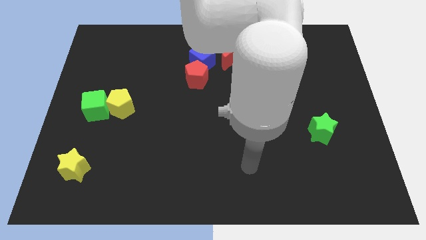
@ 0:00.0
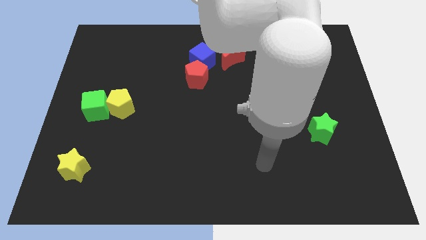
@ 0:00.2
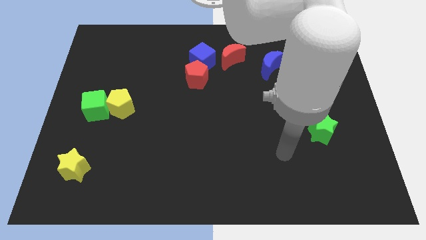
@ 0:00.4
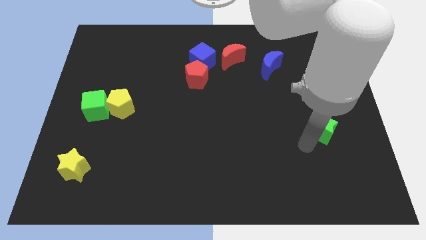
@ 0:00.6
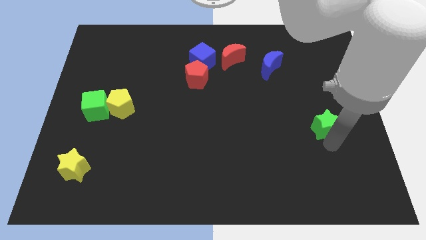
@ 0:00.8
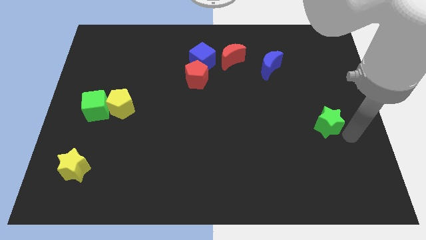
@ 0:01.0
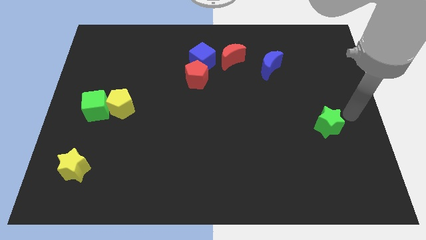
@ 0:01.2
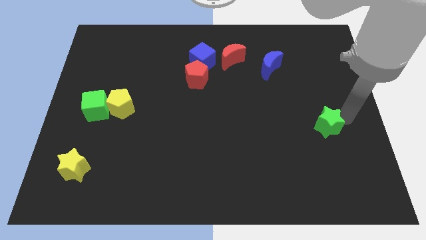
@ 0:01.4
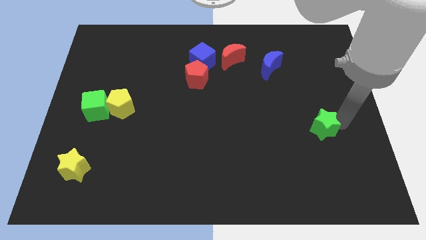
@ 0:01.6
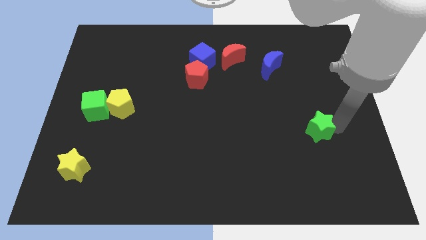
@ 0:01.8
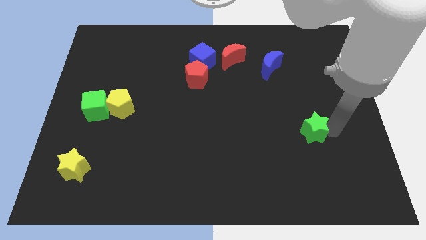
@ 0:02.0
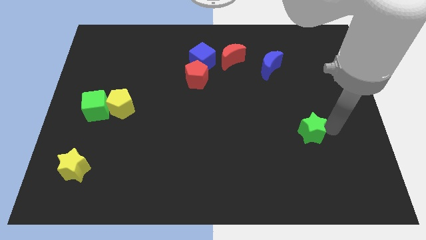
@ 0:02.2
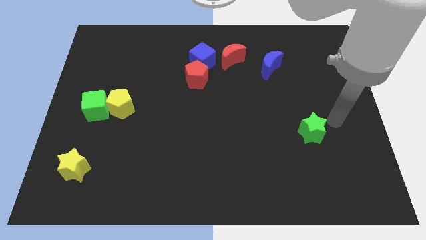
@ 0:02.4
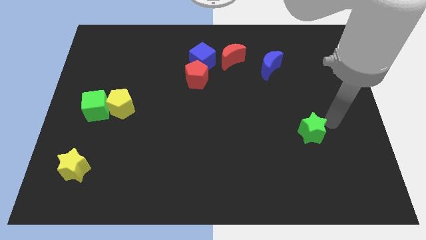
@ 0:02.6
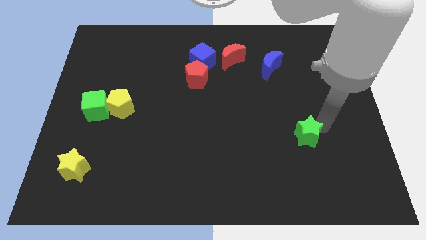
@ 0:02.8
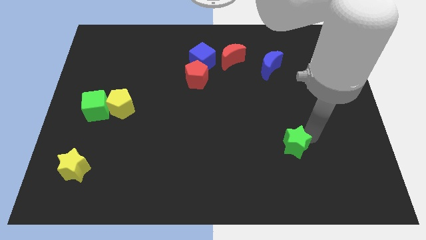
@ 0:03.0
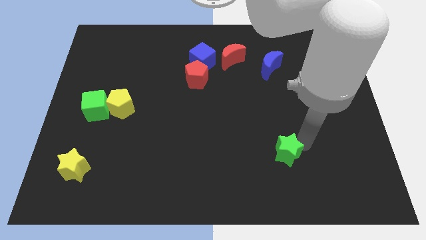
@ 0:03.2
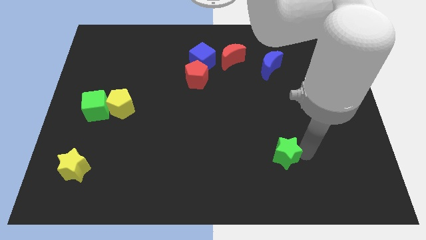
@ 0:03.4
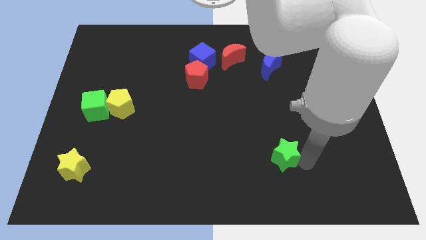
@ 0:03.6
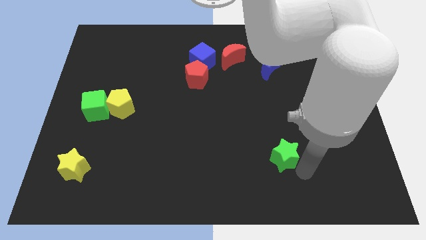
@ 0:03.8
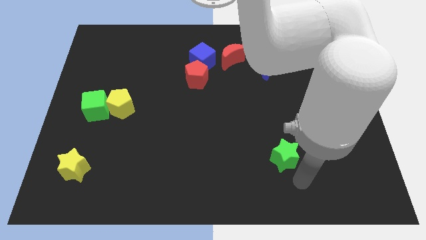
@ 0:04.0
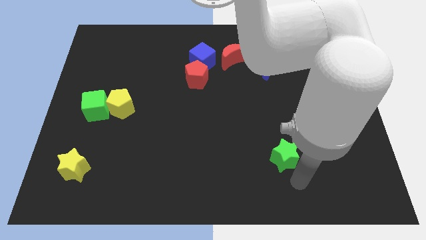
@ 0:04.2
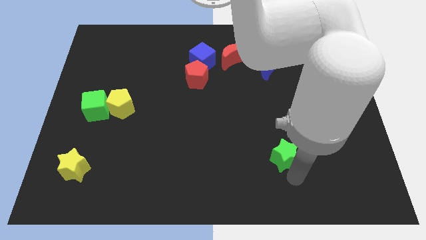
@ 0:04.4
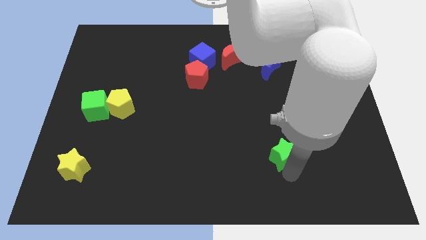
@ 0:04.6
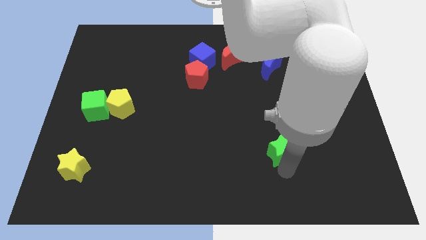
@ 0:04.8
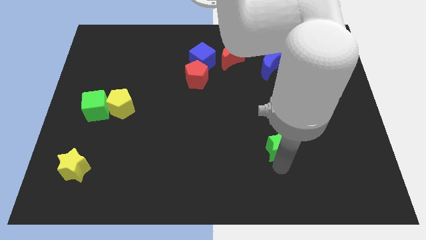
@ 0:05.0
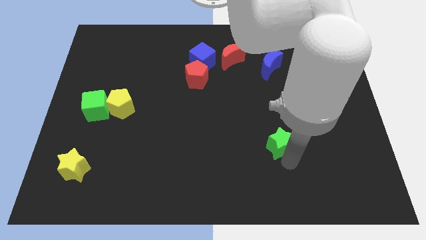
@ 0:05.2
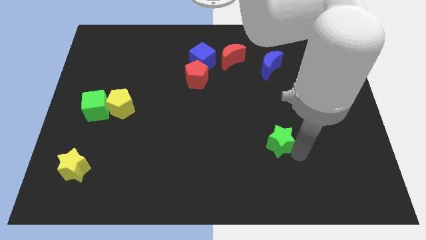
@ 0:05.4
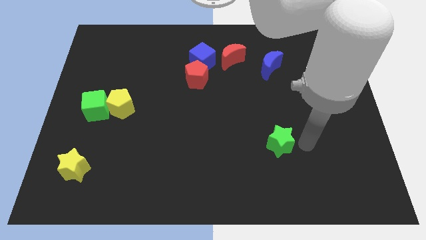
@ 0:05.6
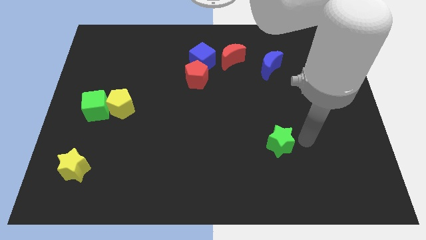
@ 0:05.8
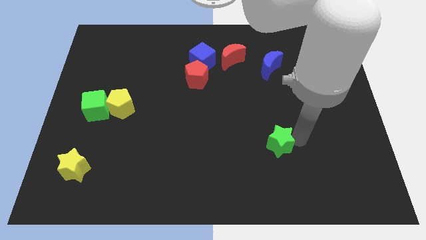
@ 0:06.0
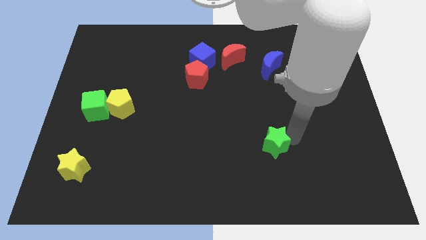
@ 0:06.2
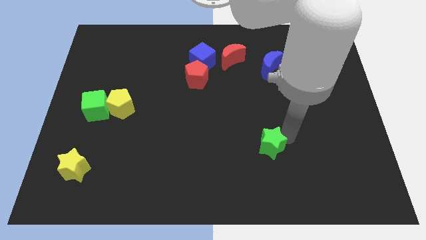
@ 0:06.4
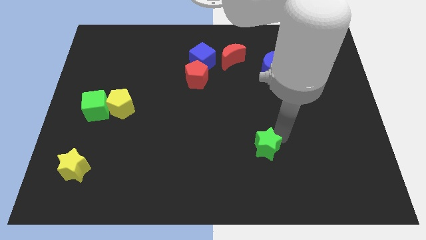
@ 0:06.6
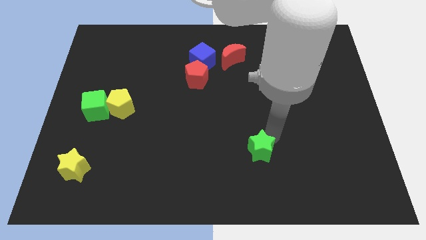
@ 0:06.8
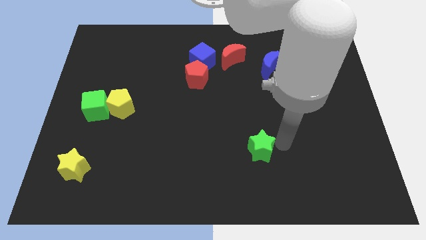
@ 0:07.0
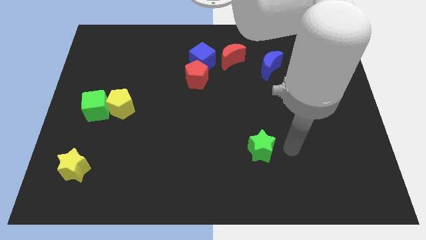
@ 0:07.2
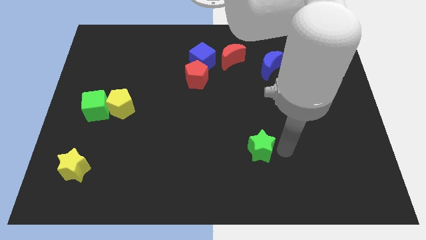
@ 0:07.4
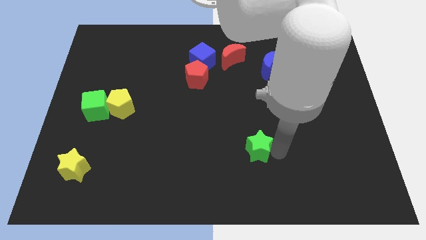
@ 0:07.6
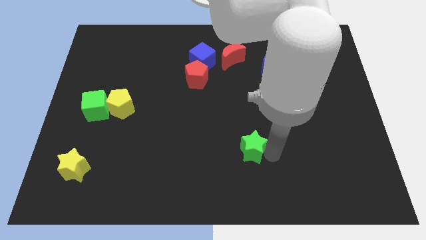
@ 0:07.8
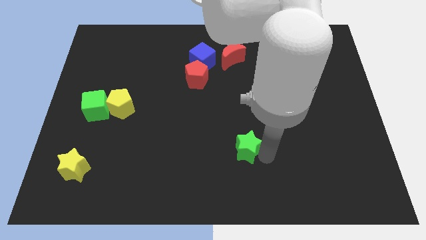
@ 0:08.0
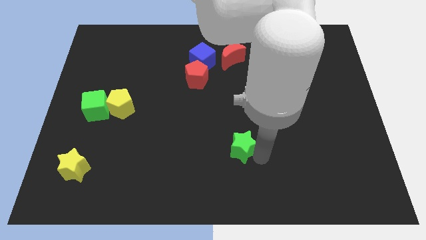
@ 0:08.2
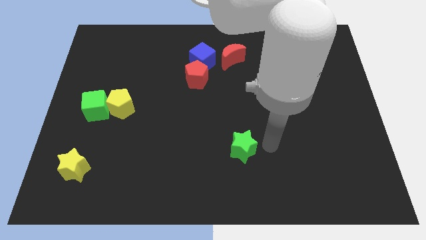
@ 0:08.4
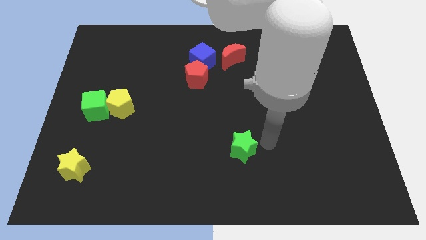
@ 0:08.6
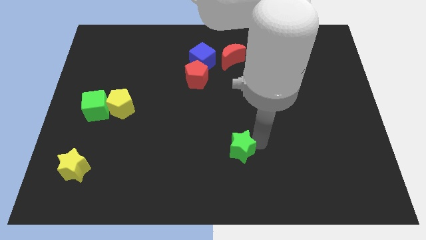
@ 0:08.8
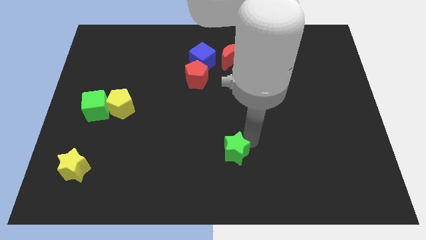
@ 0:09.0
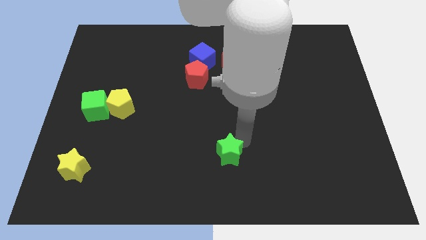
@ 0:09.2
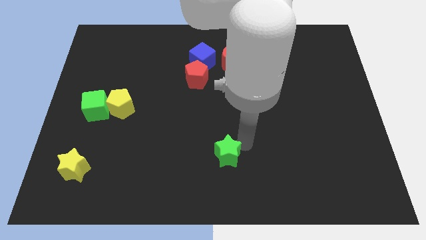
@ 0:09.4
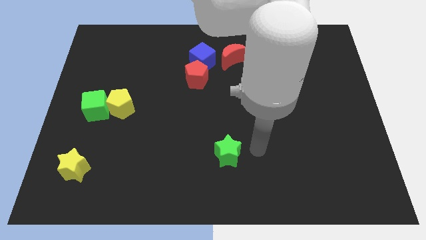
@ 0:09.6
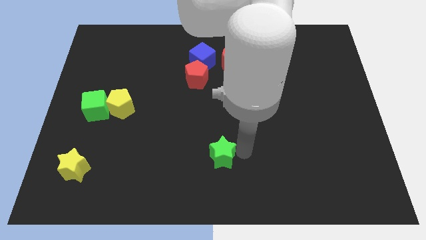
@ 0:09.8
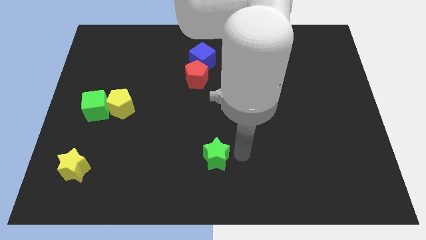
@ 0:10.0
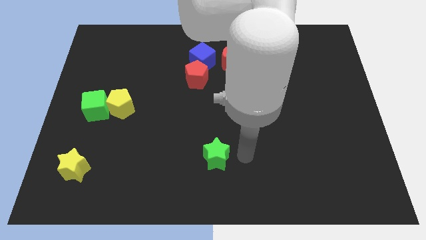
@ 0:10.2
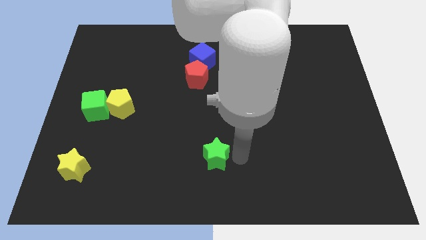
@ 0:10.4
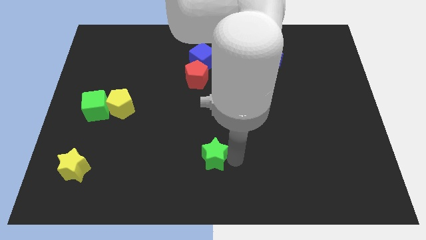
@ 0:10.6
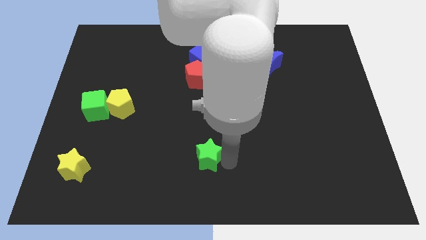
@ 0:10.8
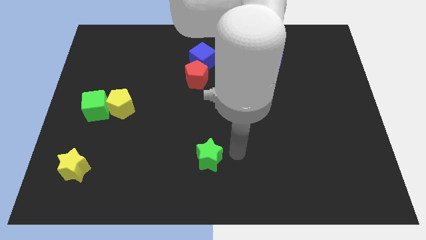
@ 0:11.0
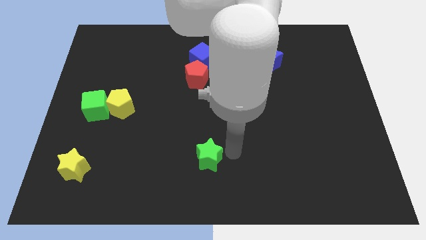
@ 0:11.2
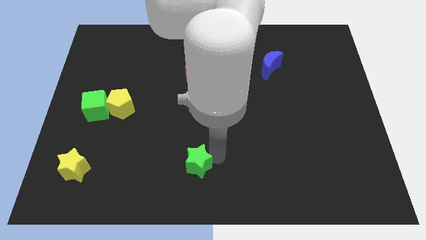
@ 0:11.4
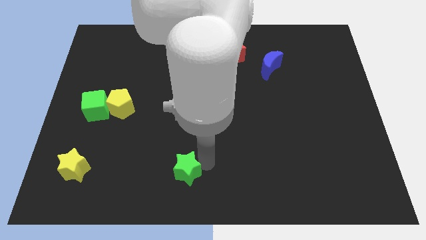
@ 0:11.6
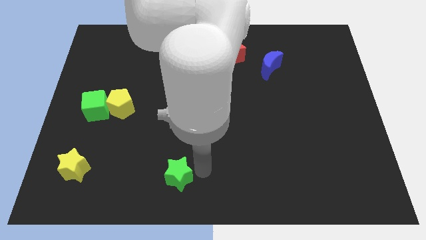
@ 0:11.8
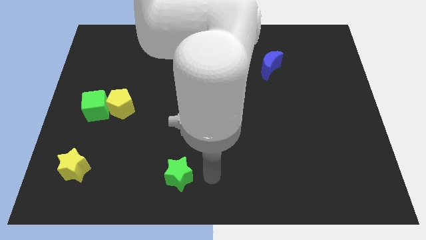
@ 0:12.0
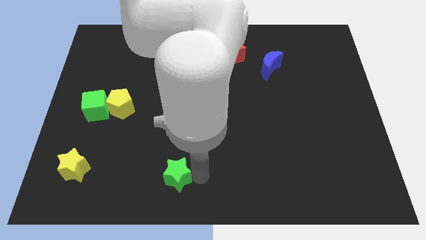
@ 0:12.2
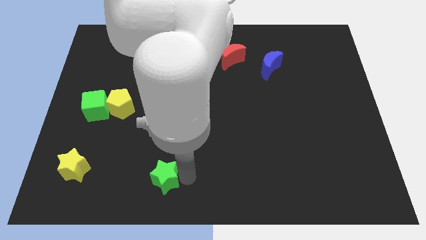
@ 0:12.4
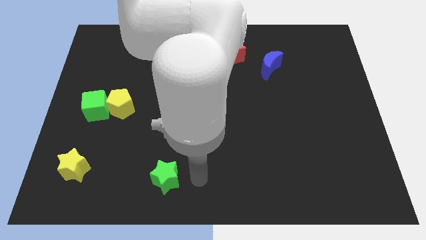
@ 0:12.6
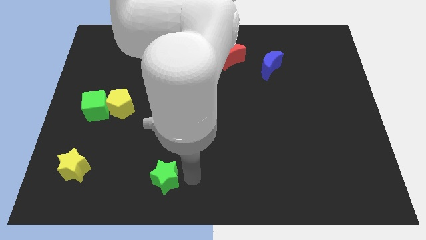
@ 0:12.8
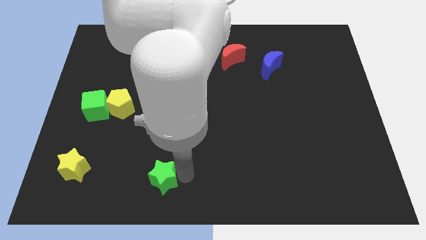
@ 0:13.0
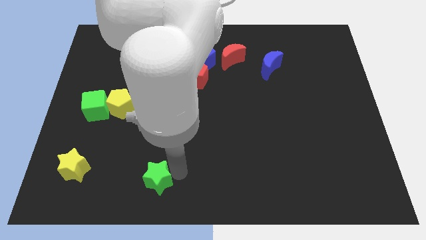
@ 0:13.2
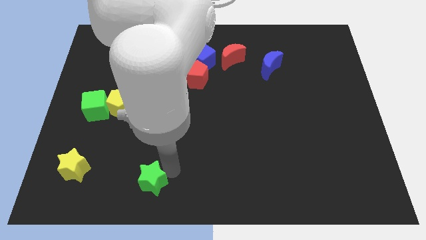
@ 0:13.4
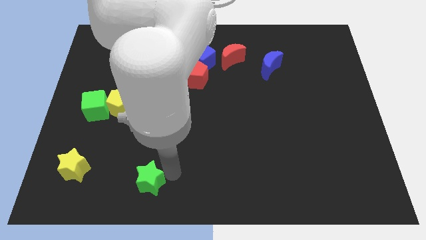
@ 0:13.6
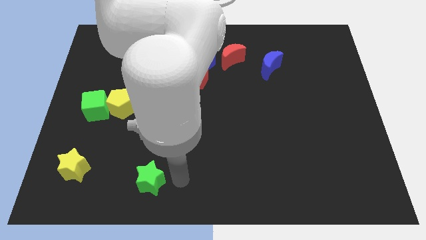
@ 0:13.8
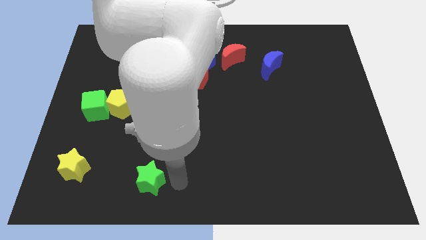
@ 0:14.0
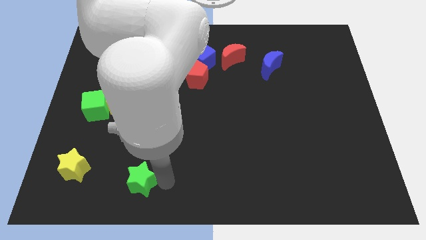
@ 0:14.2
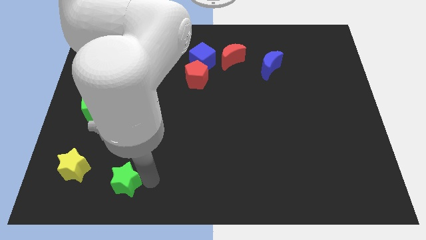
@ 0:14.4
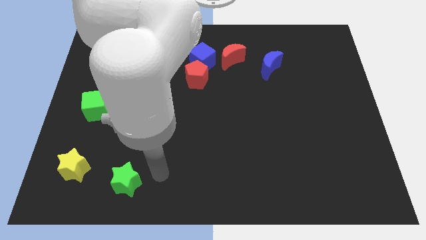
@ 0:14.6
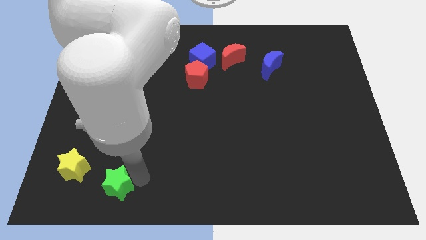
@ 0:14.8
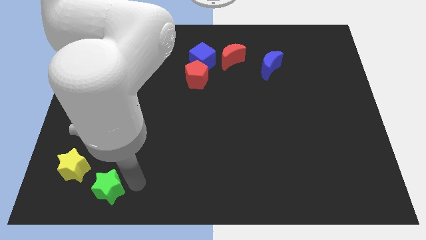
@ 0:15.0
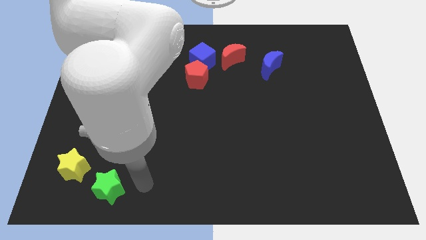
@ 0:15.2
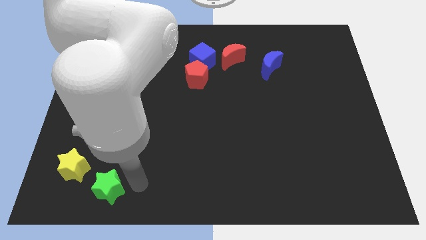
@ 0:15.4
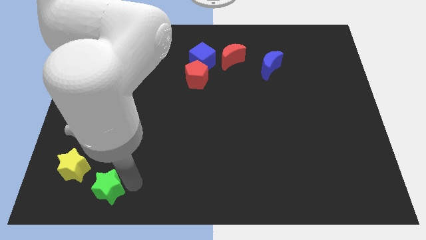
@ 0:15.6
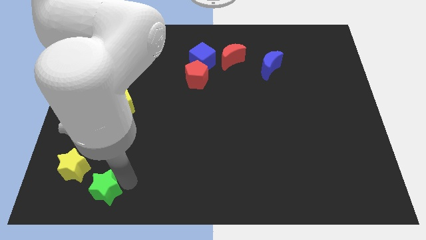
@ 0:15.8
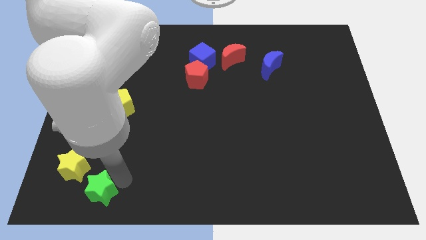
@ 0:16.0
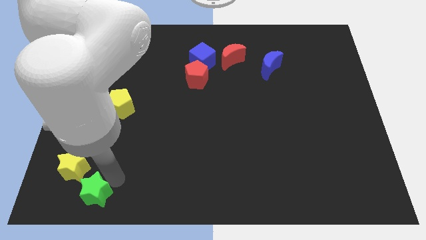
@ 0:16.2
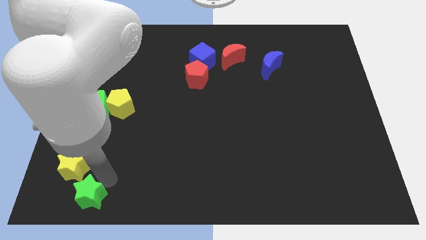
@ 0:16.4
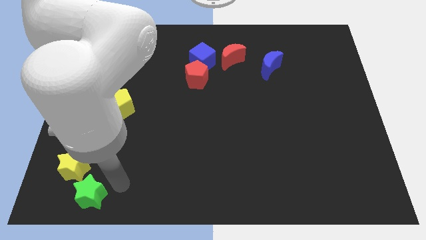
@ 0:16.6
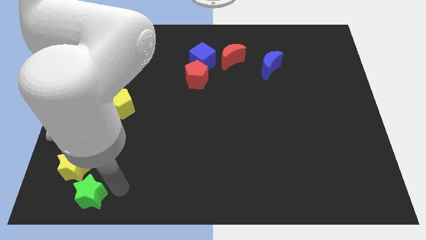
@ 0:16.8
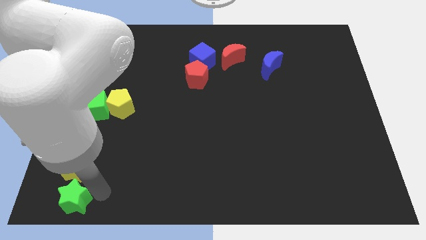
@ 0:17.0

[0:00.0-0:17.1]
put the green star to the bottom left of the board
